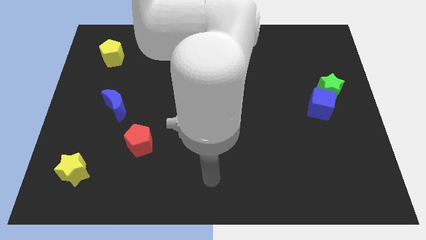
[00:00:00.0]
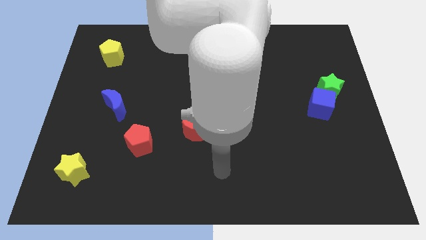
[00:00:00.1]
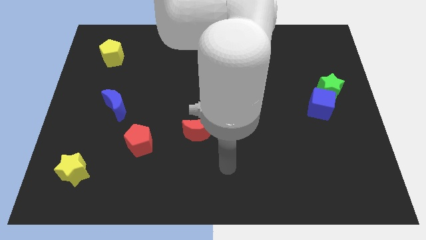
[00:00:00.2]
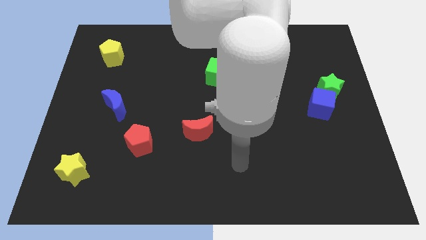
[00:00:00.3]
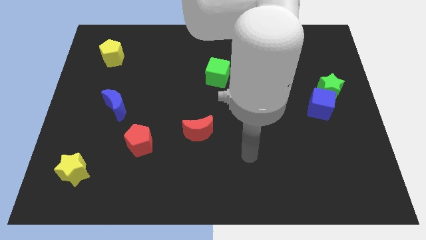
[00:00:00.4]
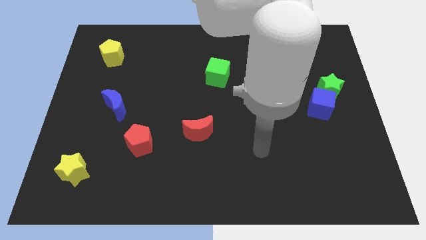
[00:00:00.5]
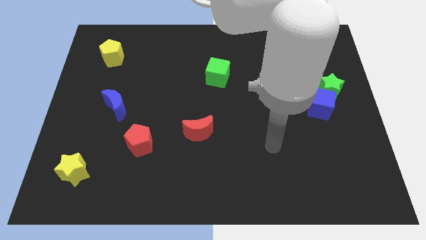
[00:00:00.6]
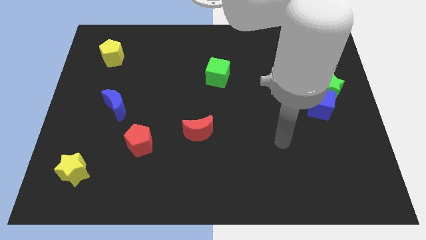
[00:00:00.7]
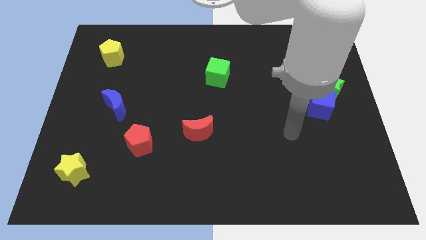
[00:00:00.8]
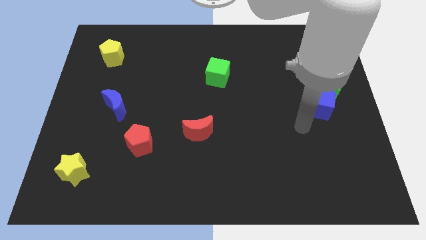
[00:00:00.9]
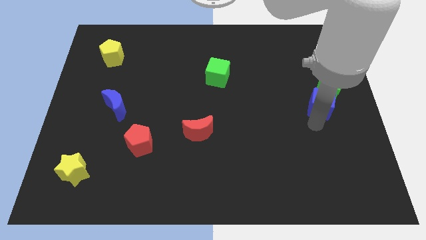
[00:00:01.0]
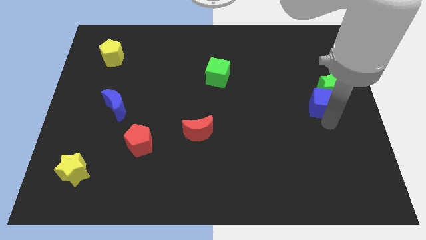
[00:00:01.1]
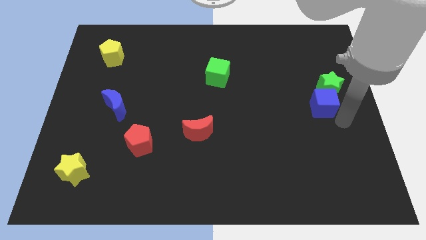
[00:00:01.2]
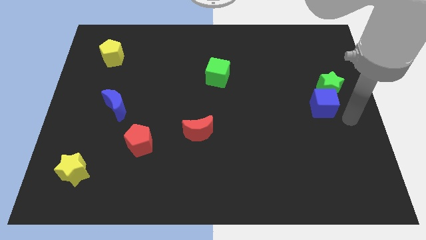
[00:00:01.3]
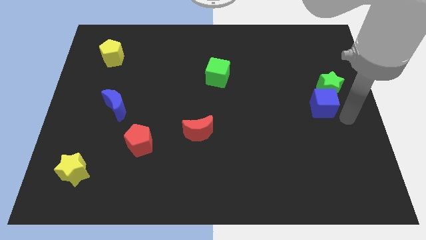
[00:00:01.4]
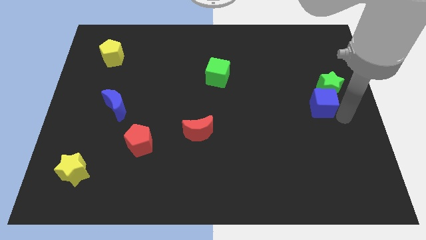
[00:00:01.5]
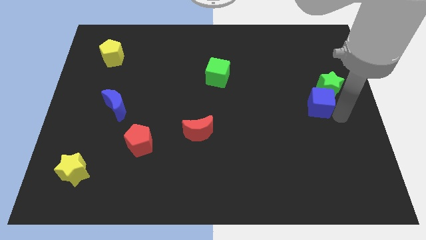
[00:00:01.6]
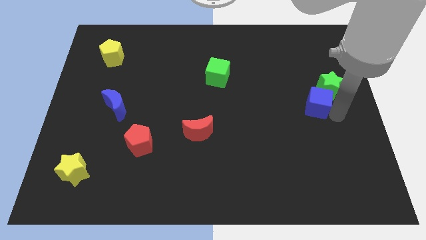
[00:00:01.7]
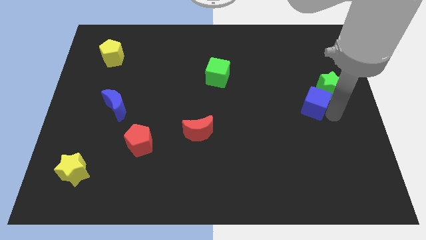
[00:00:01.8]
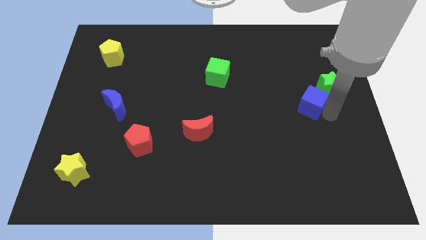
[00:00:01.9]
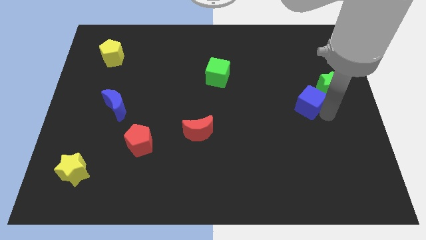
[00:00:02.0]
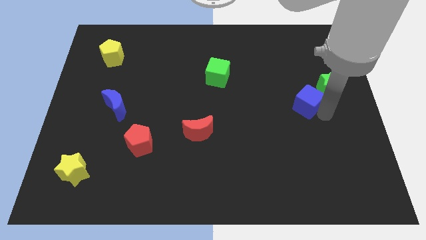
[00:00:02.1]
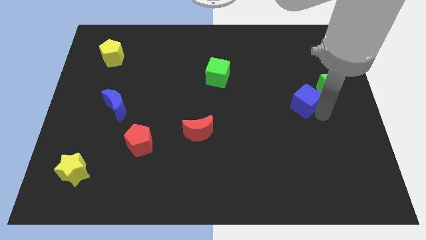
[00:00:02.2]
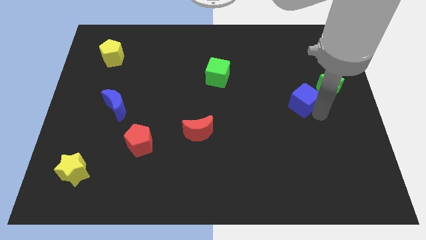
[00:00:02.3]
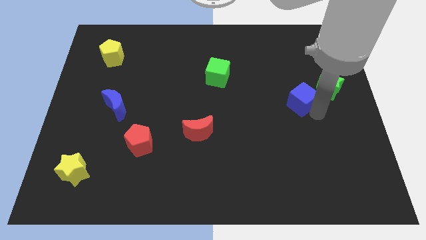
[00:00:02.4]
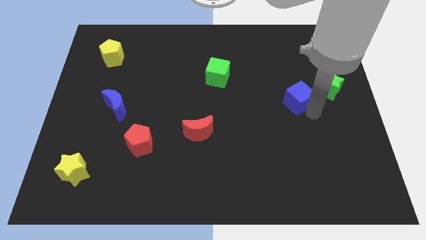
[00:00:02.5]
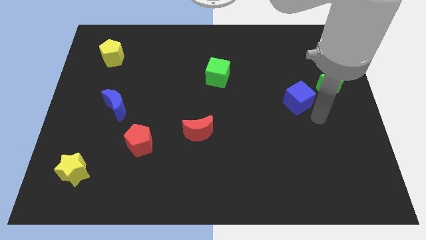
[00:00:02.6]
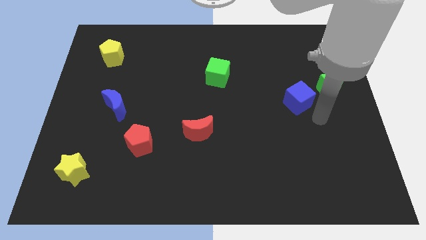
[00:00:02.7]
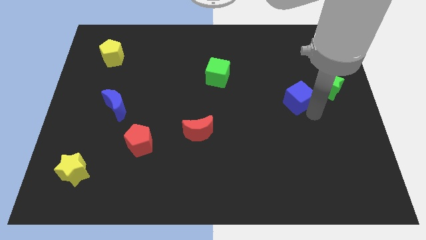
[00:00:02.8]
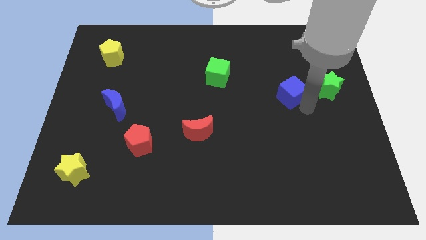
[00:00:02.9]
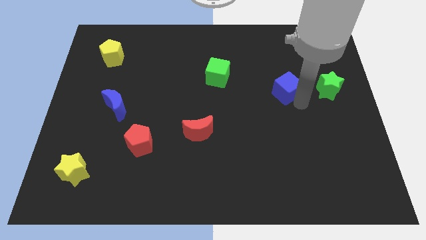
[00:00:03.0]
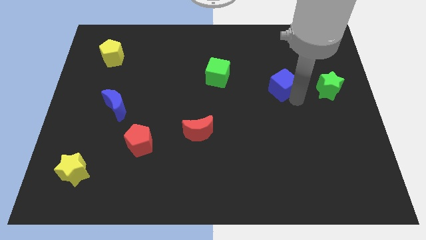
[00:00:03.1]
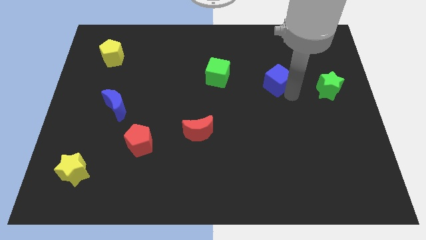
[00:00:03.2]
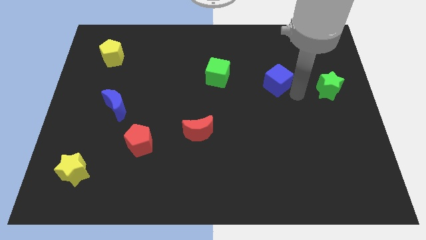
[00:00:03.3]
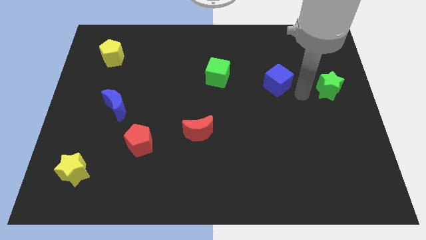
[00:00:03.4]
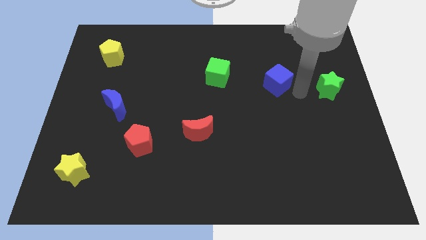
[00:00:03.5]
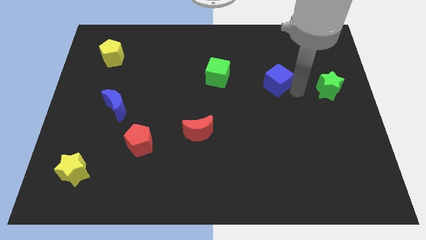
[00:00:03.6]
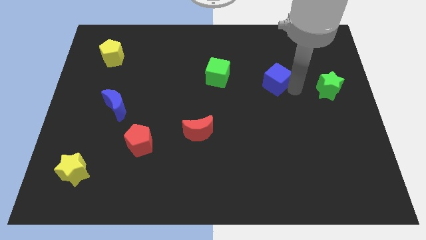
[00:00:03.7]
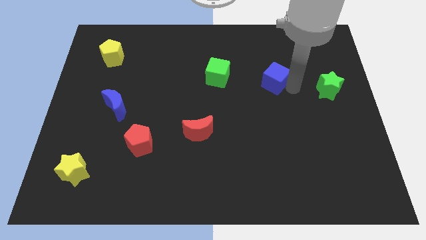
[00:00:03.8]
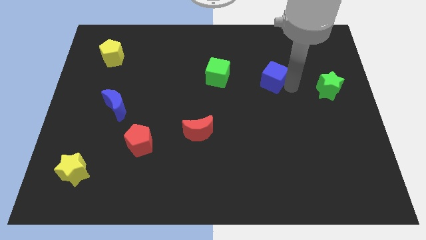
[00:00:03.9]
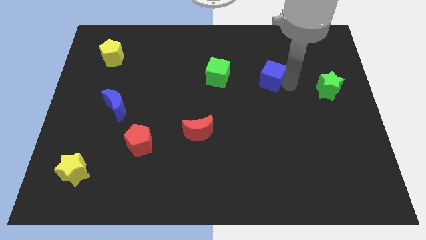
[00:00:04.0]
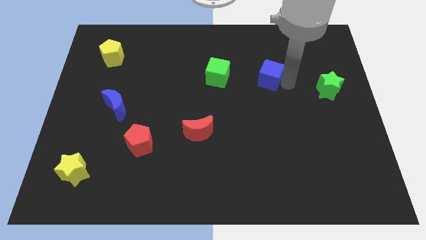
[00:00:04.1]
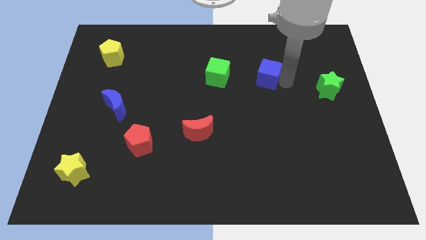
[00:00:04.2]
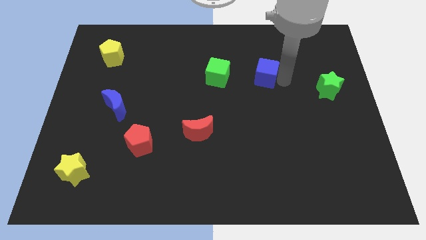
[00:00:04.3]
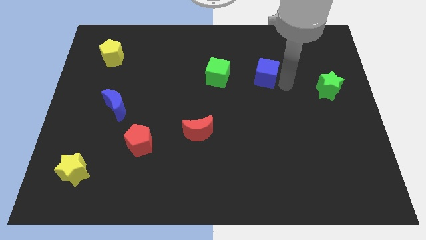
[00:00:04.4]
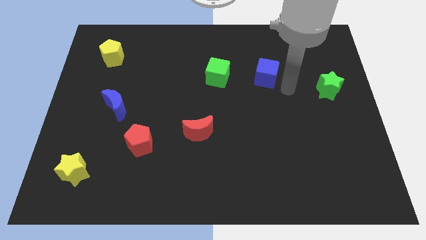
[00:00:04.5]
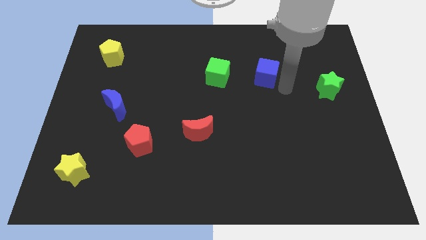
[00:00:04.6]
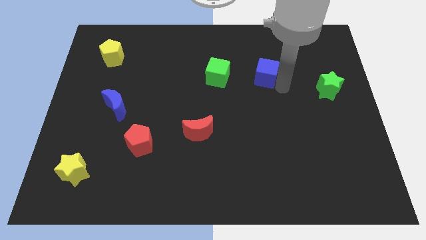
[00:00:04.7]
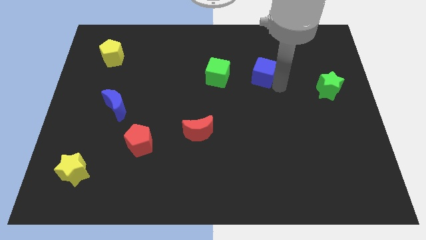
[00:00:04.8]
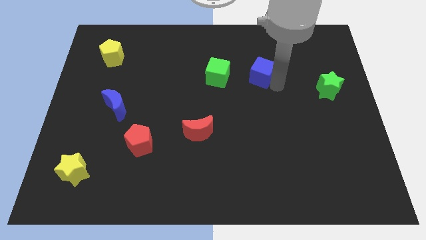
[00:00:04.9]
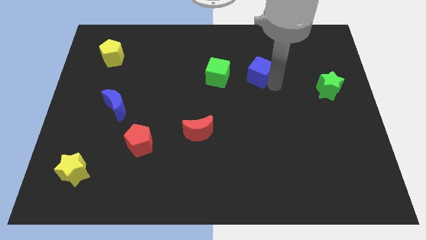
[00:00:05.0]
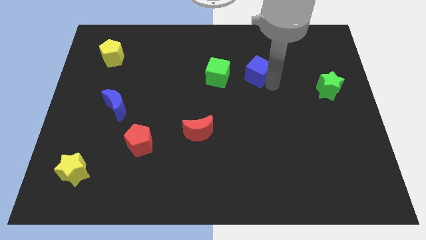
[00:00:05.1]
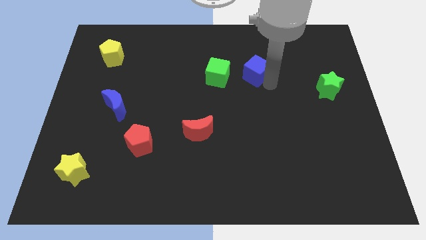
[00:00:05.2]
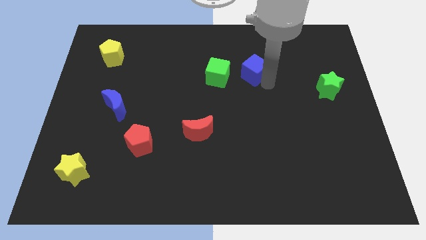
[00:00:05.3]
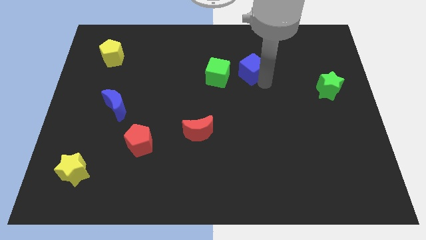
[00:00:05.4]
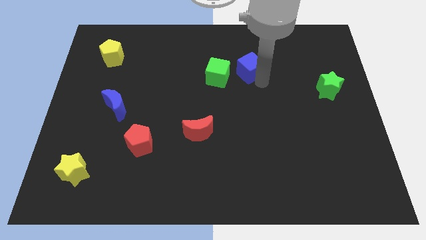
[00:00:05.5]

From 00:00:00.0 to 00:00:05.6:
put the blue cube to the top right of the green cube

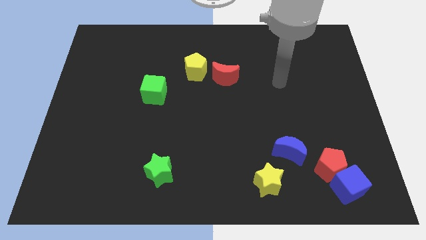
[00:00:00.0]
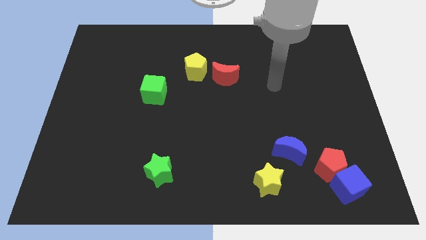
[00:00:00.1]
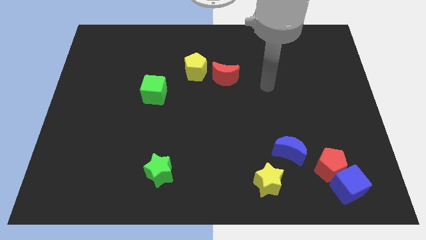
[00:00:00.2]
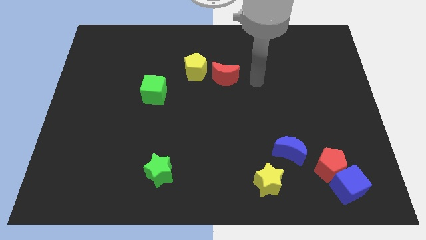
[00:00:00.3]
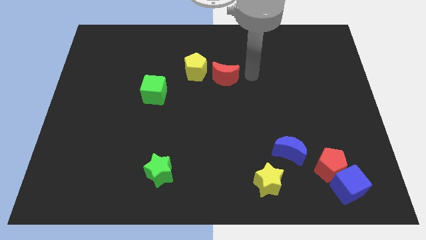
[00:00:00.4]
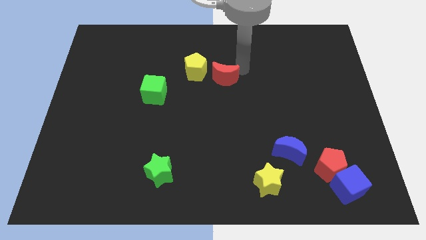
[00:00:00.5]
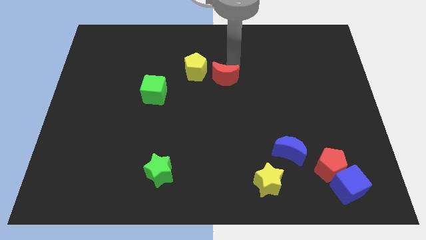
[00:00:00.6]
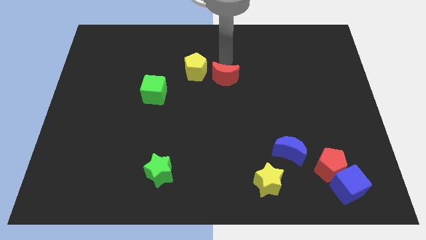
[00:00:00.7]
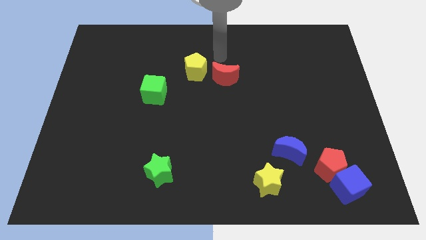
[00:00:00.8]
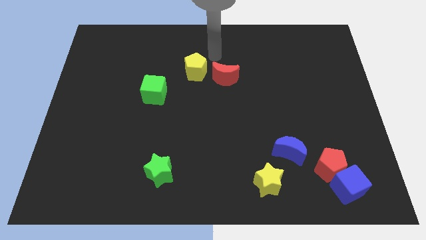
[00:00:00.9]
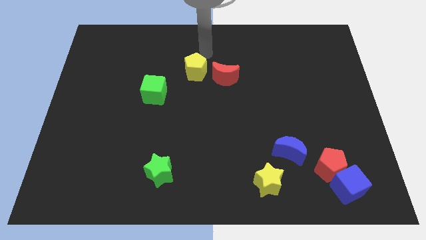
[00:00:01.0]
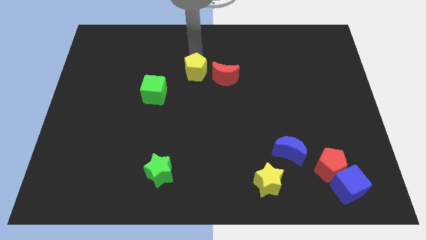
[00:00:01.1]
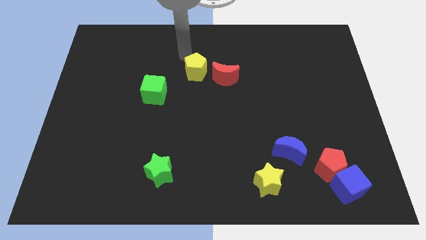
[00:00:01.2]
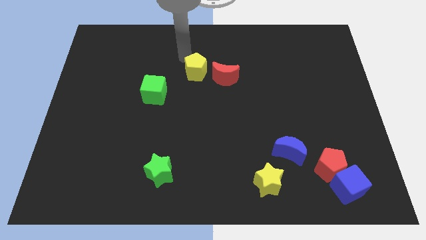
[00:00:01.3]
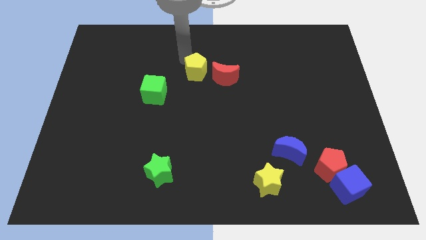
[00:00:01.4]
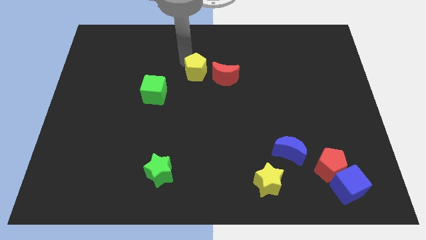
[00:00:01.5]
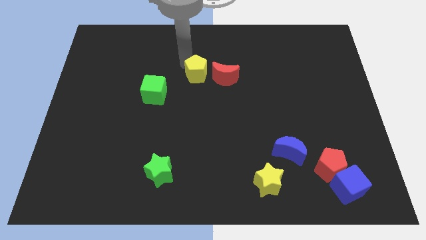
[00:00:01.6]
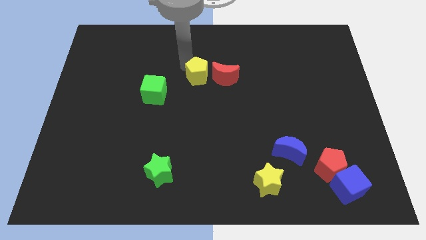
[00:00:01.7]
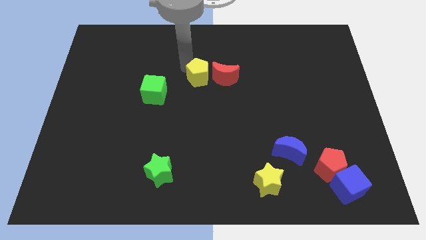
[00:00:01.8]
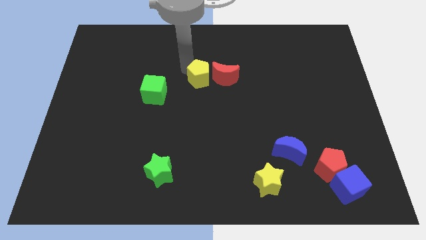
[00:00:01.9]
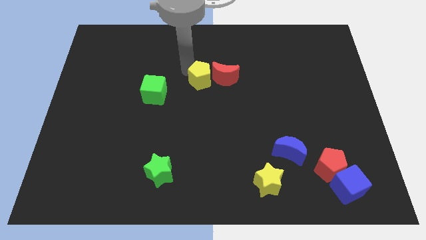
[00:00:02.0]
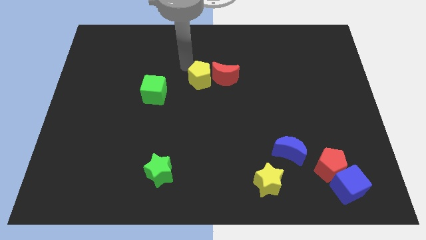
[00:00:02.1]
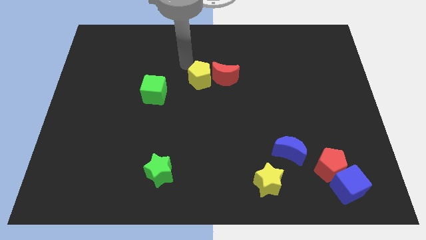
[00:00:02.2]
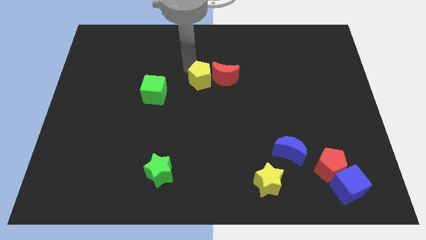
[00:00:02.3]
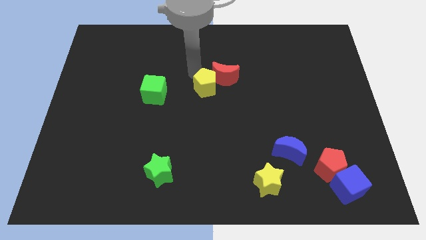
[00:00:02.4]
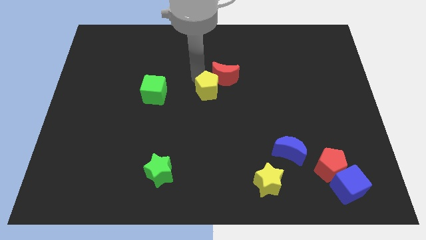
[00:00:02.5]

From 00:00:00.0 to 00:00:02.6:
push the yellow pentagon to the bottom of the red moon
